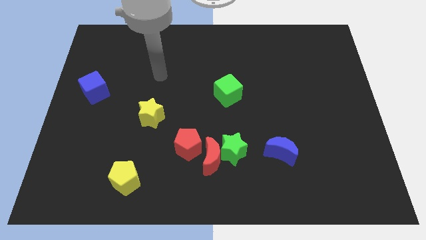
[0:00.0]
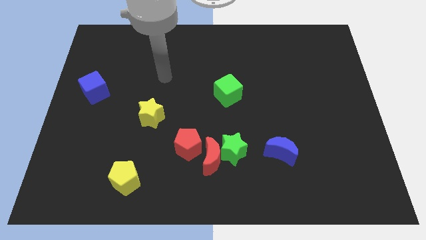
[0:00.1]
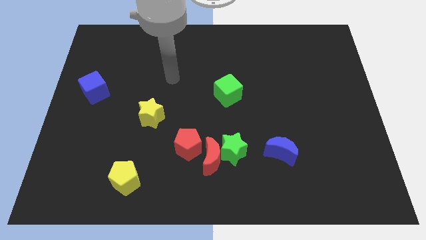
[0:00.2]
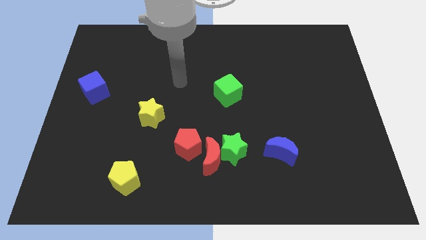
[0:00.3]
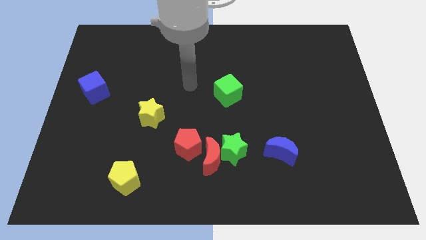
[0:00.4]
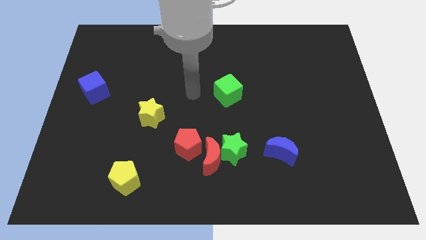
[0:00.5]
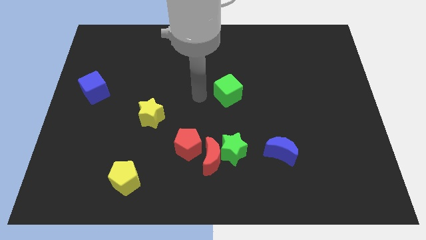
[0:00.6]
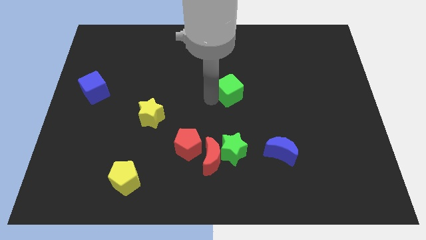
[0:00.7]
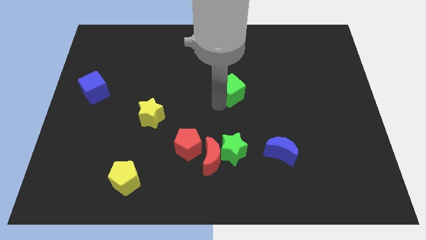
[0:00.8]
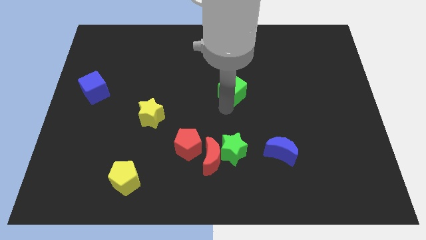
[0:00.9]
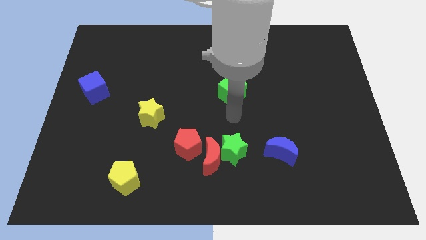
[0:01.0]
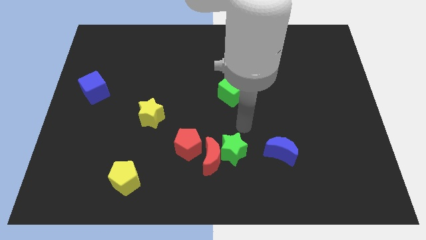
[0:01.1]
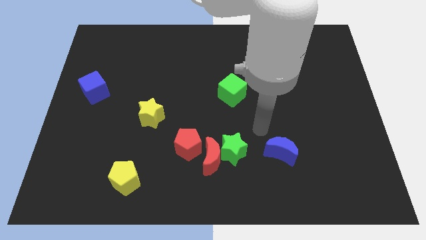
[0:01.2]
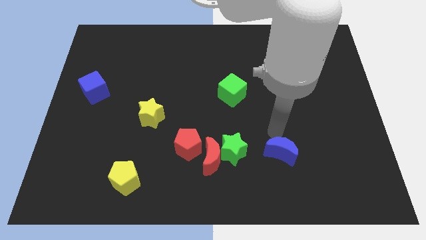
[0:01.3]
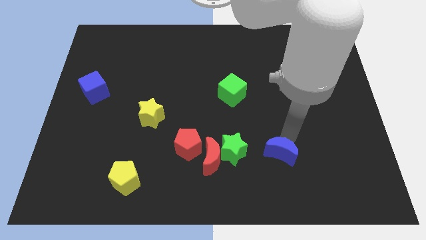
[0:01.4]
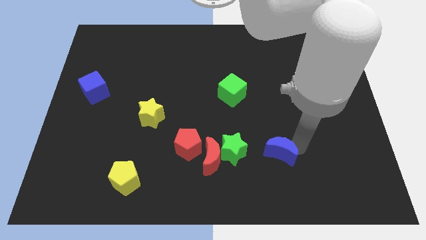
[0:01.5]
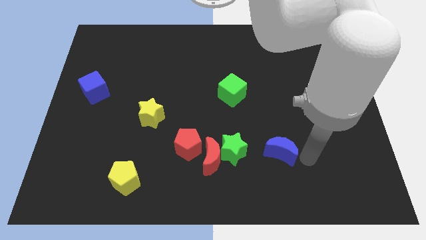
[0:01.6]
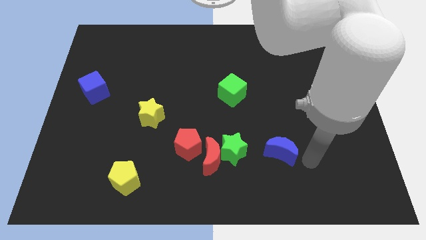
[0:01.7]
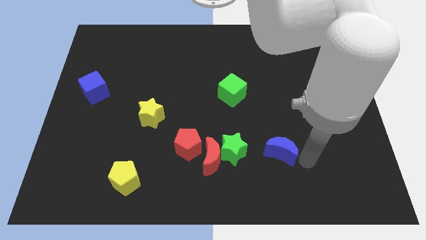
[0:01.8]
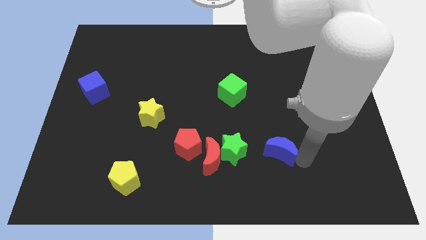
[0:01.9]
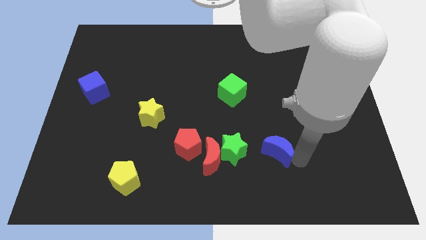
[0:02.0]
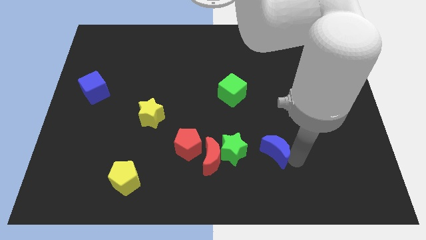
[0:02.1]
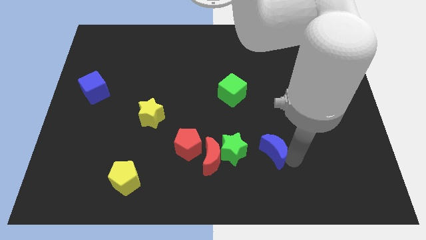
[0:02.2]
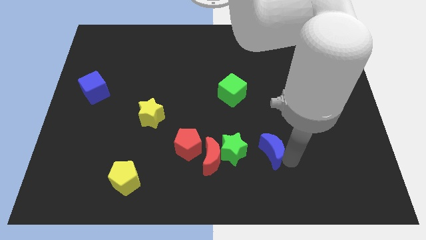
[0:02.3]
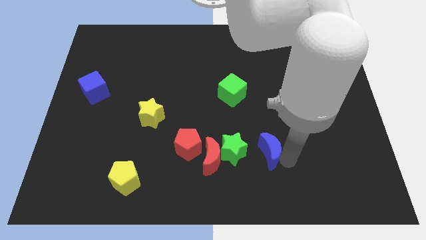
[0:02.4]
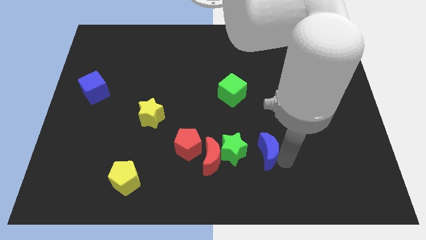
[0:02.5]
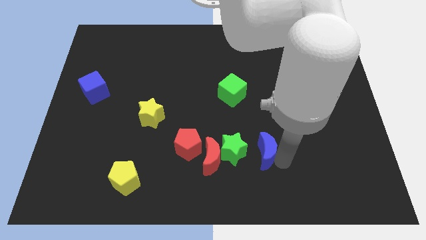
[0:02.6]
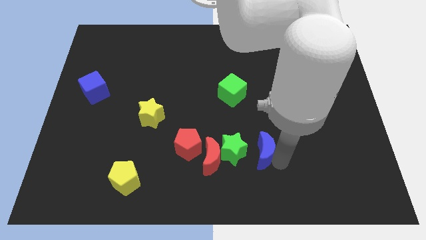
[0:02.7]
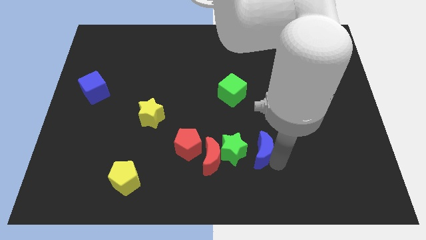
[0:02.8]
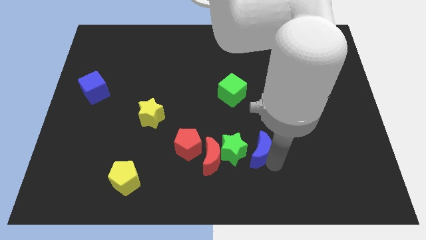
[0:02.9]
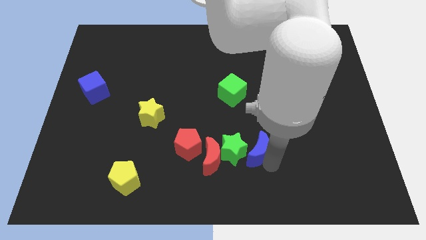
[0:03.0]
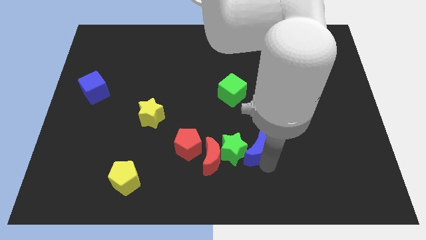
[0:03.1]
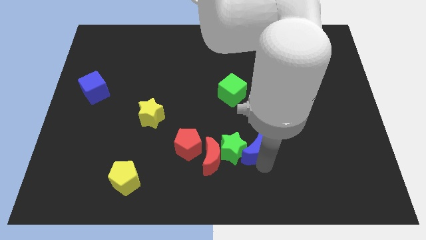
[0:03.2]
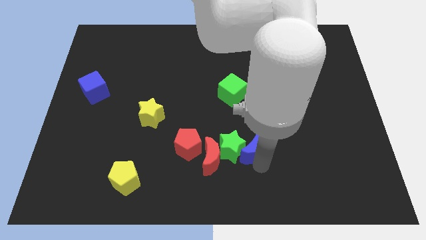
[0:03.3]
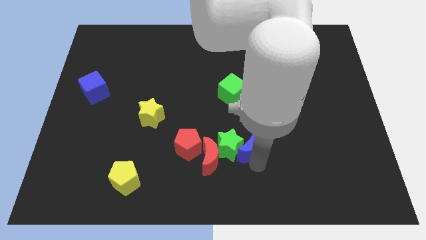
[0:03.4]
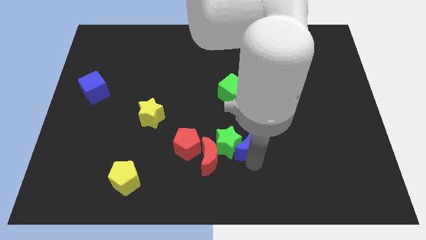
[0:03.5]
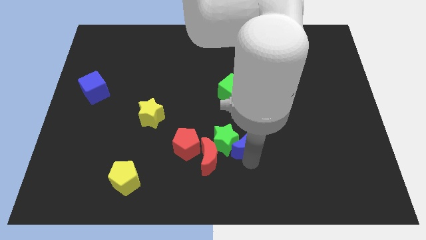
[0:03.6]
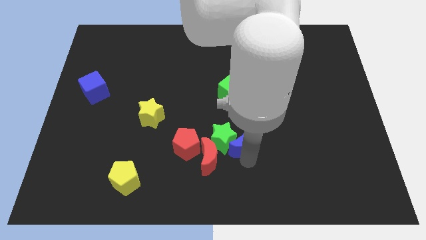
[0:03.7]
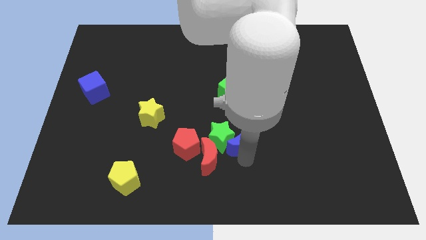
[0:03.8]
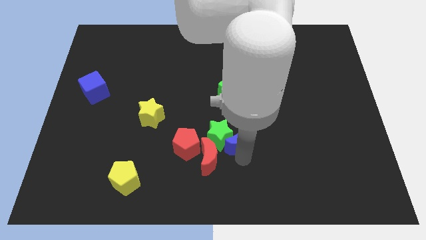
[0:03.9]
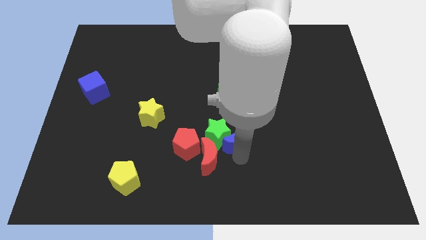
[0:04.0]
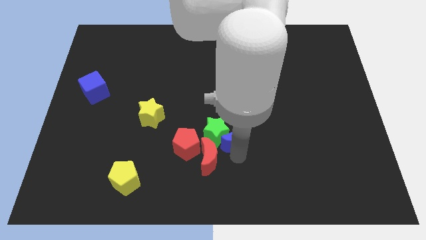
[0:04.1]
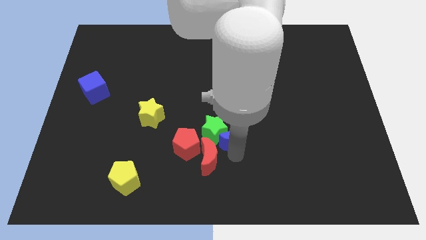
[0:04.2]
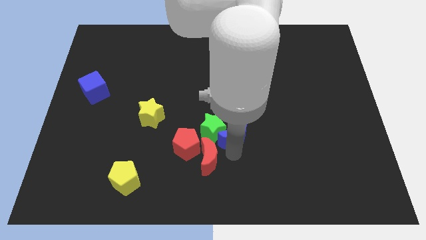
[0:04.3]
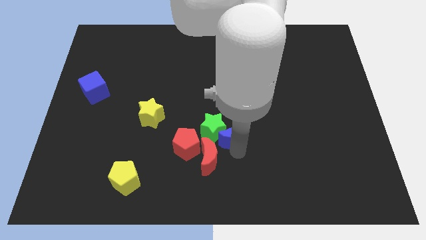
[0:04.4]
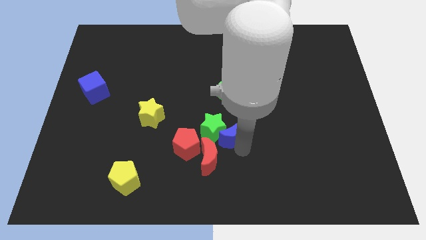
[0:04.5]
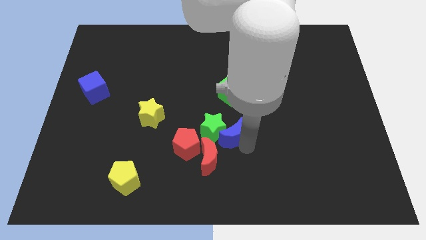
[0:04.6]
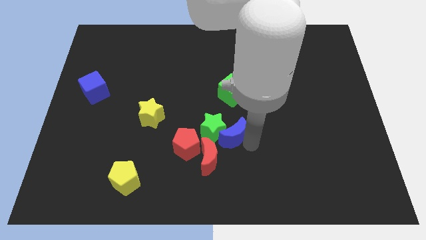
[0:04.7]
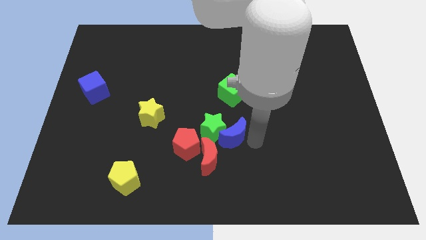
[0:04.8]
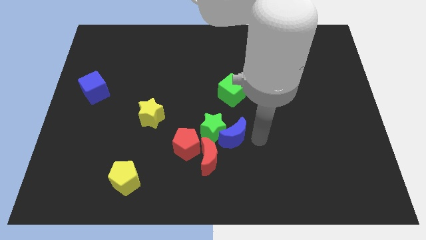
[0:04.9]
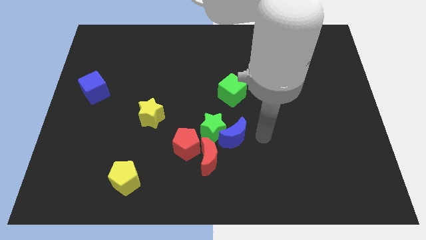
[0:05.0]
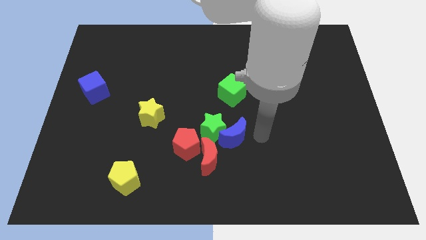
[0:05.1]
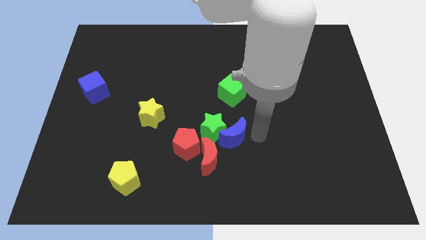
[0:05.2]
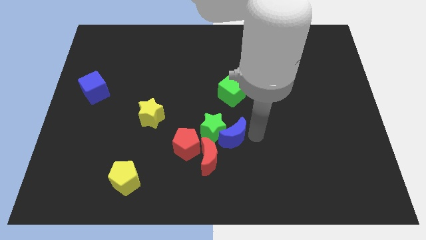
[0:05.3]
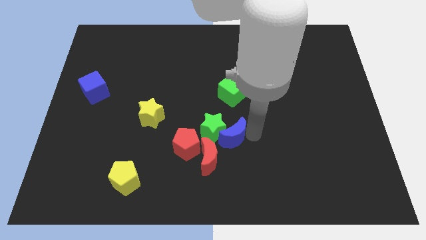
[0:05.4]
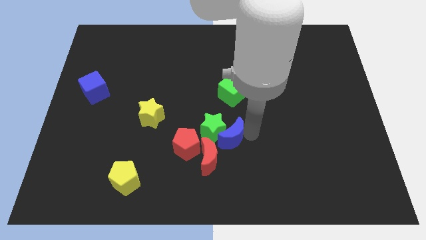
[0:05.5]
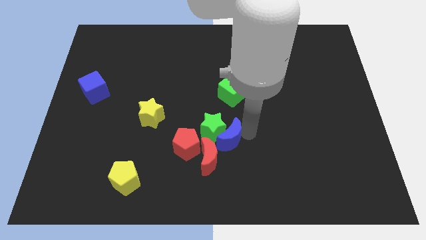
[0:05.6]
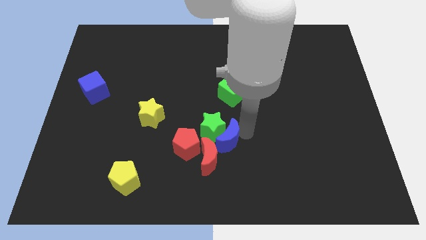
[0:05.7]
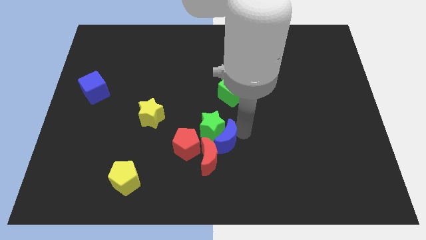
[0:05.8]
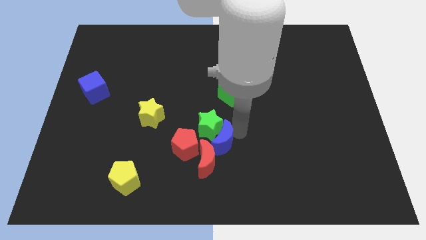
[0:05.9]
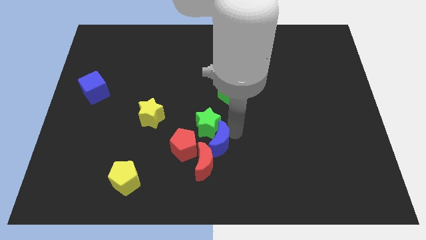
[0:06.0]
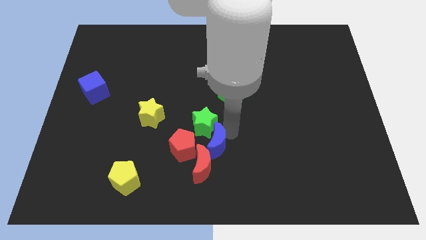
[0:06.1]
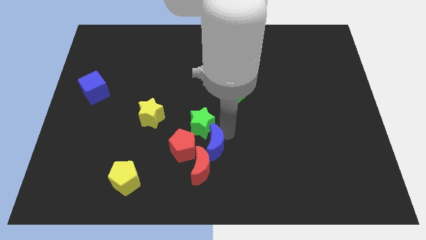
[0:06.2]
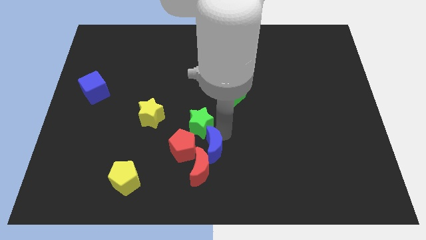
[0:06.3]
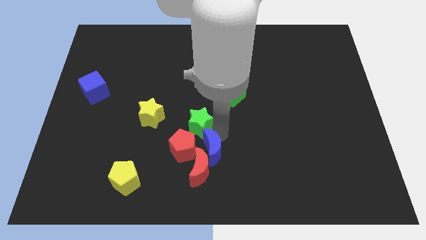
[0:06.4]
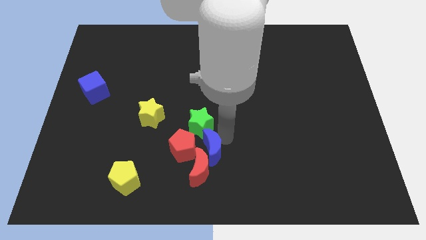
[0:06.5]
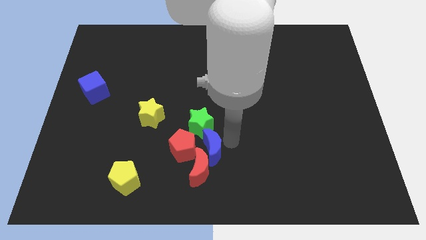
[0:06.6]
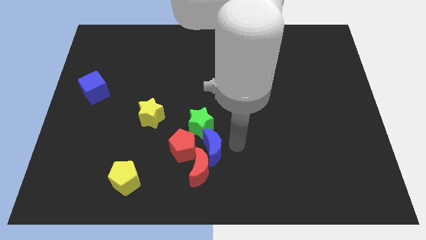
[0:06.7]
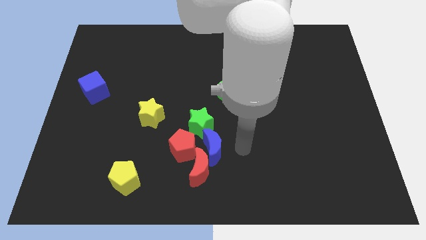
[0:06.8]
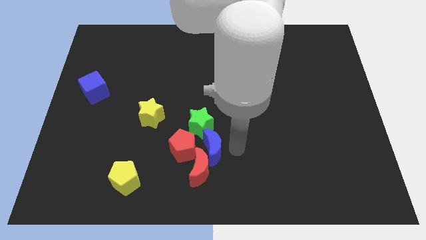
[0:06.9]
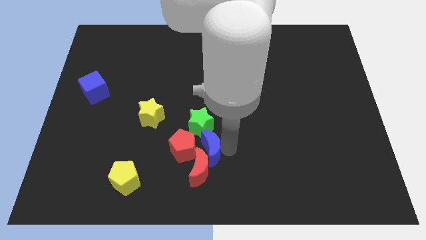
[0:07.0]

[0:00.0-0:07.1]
push the blue moon next to the red pentagon
